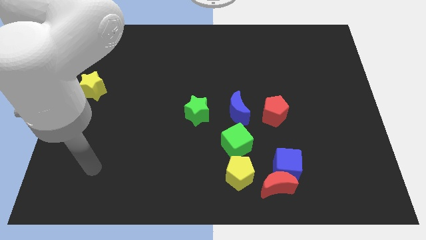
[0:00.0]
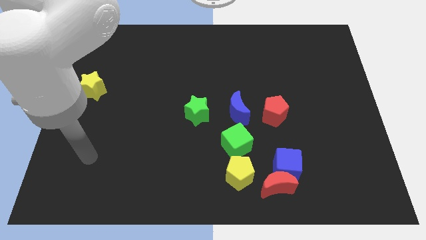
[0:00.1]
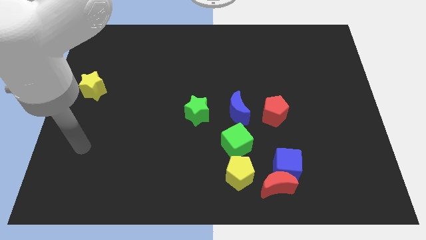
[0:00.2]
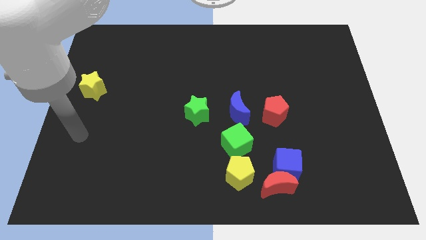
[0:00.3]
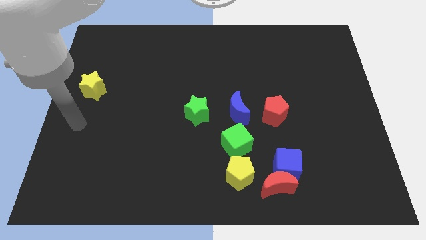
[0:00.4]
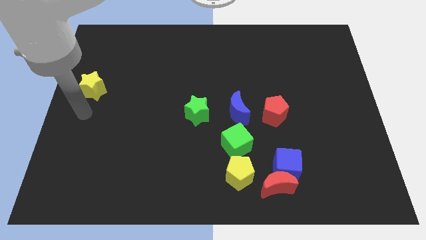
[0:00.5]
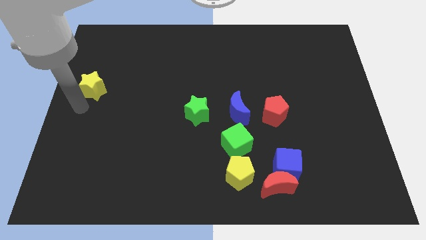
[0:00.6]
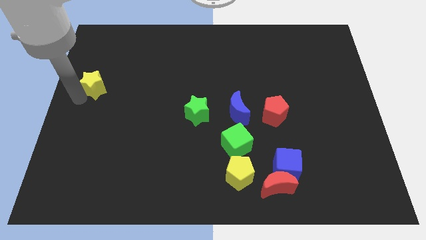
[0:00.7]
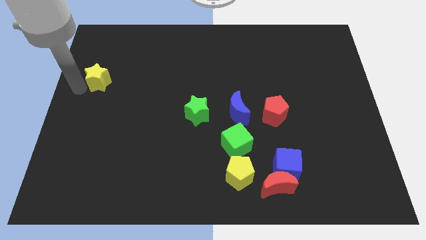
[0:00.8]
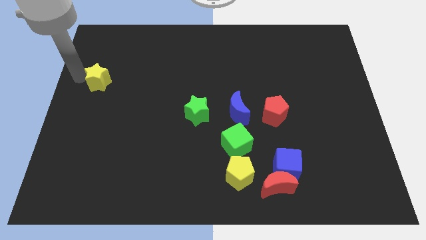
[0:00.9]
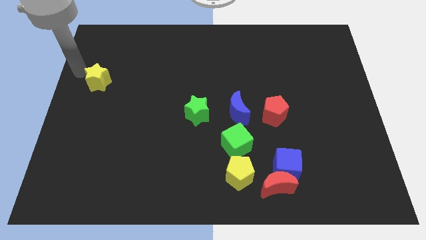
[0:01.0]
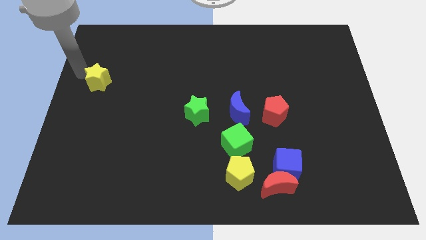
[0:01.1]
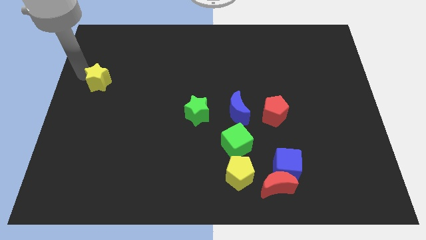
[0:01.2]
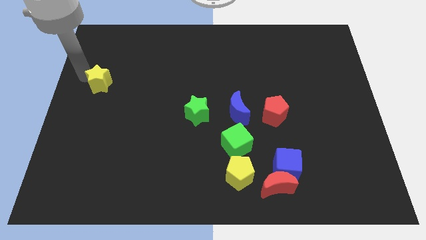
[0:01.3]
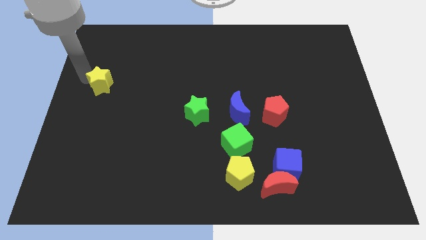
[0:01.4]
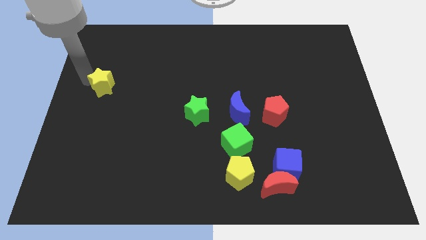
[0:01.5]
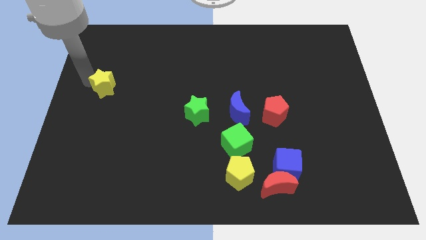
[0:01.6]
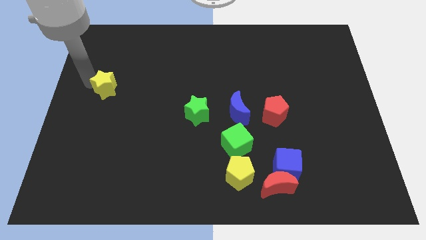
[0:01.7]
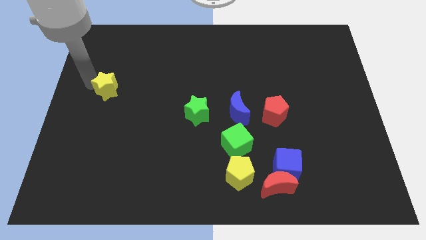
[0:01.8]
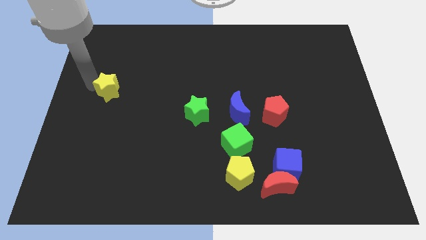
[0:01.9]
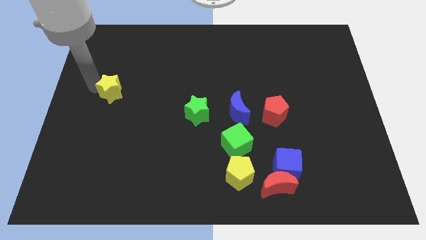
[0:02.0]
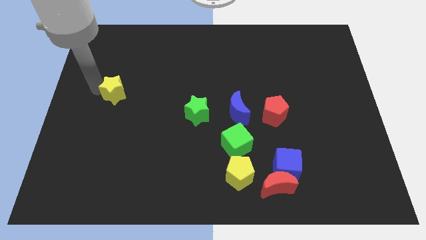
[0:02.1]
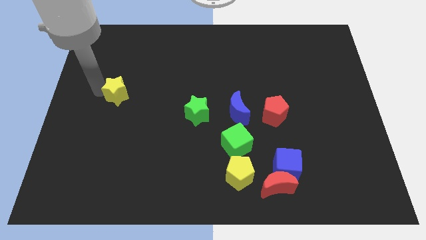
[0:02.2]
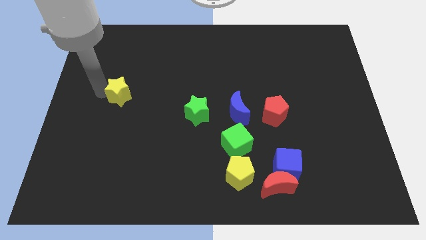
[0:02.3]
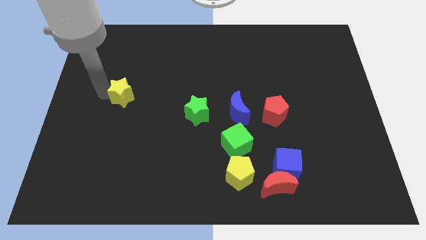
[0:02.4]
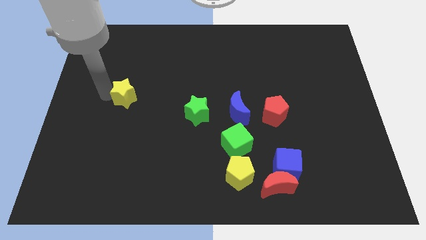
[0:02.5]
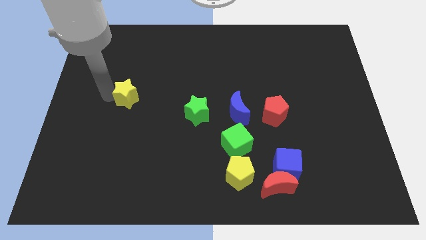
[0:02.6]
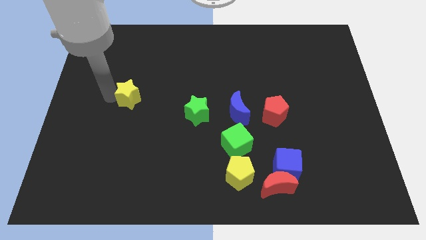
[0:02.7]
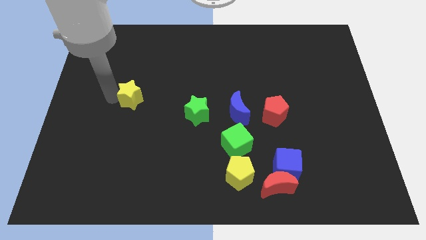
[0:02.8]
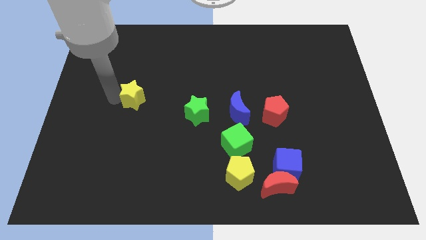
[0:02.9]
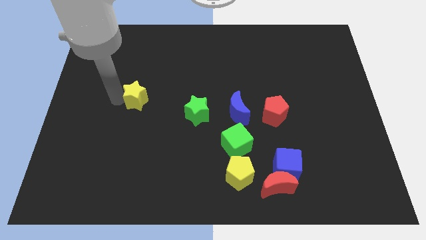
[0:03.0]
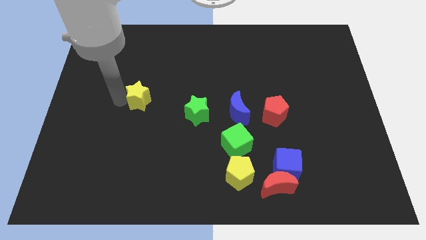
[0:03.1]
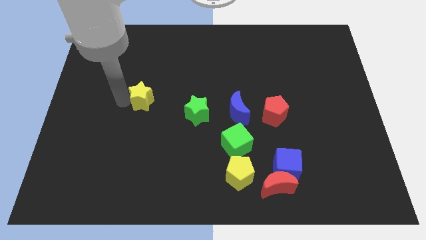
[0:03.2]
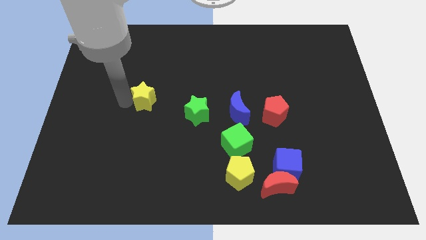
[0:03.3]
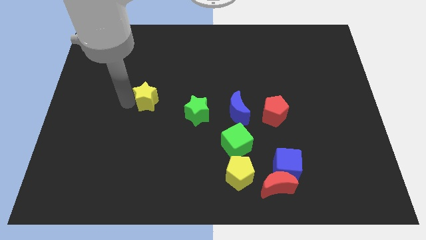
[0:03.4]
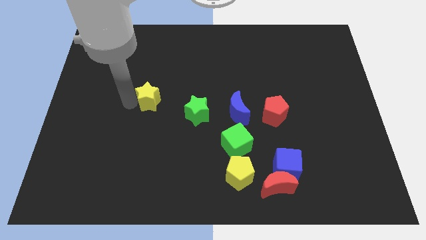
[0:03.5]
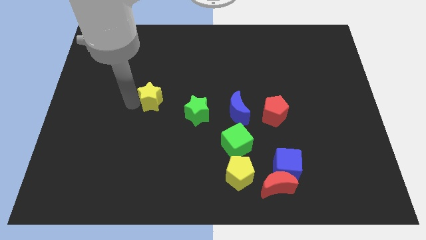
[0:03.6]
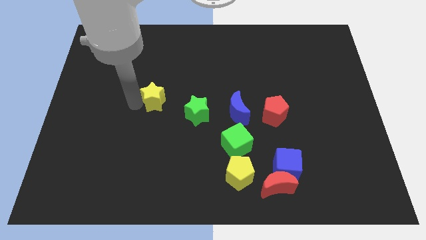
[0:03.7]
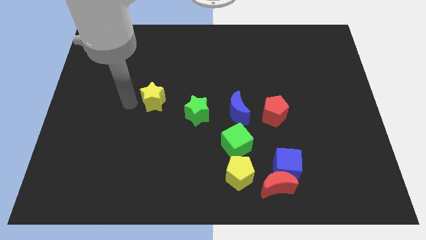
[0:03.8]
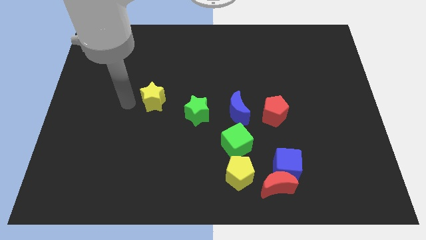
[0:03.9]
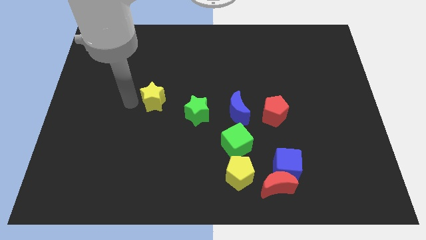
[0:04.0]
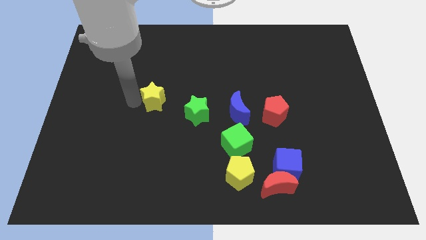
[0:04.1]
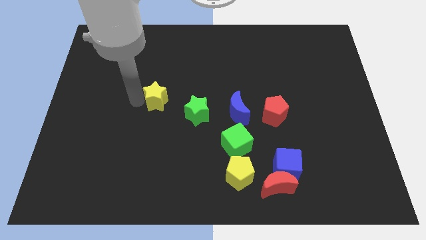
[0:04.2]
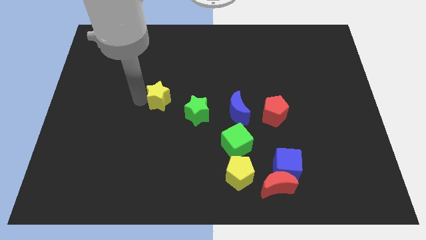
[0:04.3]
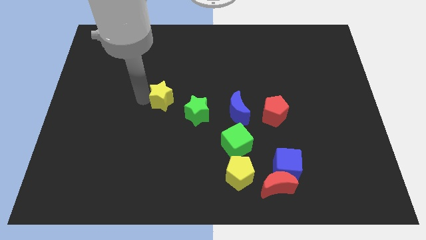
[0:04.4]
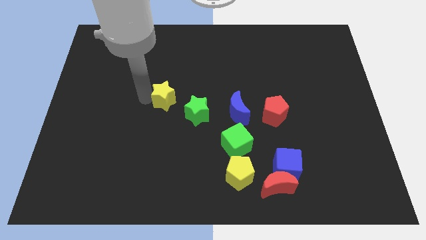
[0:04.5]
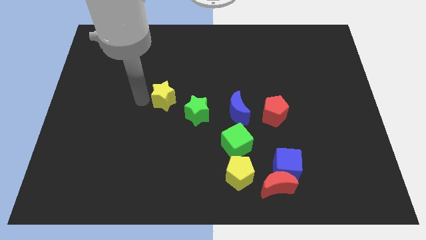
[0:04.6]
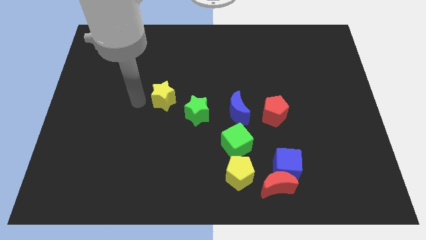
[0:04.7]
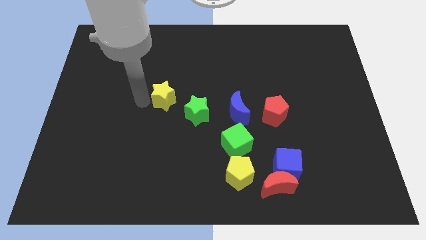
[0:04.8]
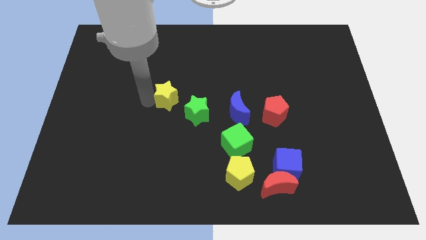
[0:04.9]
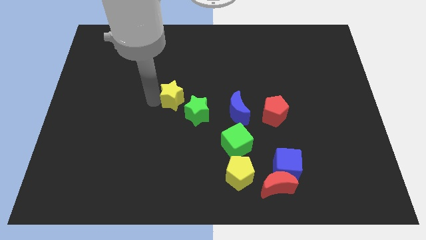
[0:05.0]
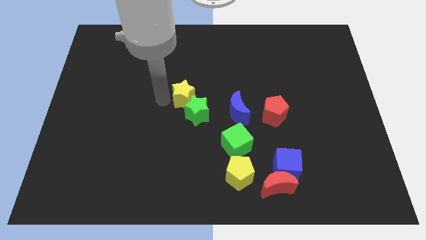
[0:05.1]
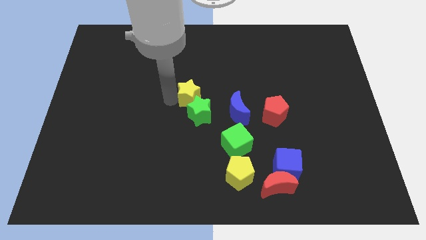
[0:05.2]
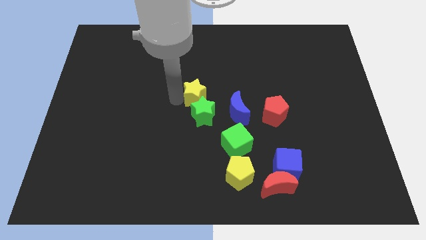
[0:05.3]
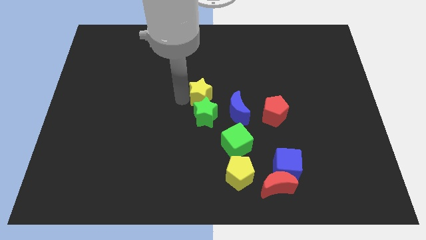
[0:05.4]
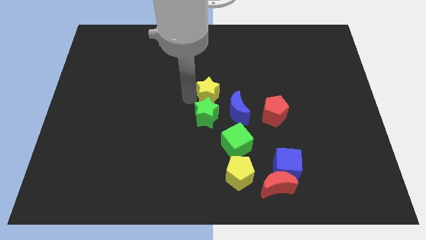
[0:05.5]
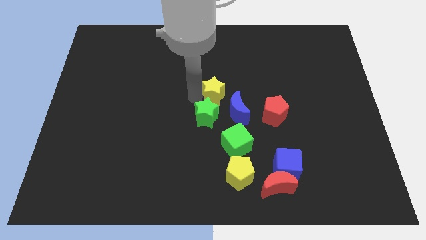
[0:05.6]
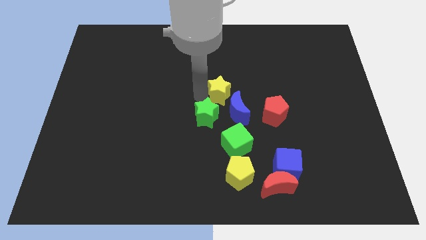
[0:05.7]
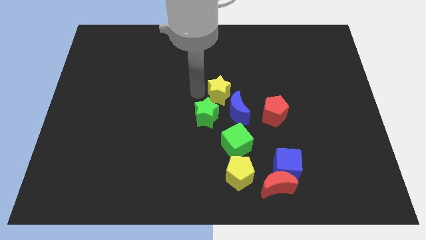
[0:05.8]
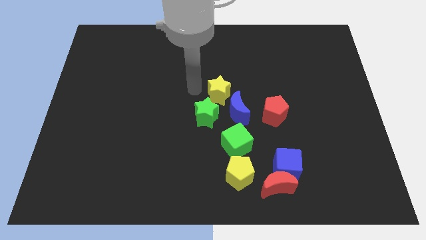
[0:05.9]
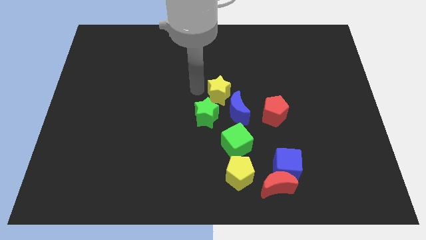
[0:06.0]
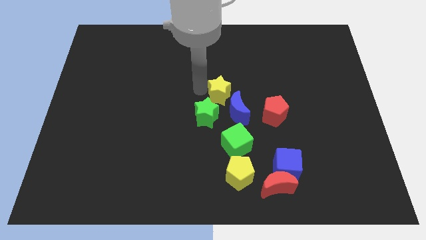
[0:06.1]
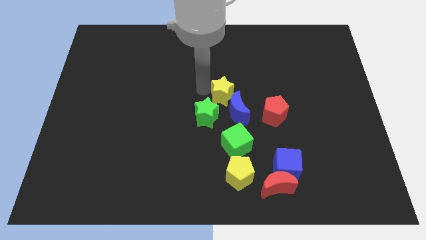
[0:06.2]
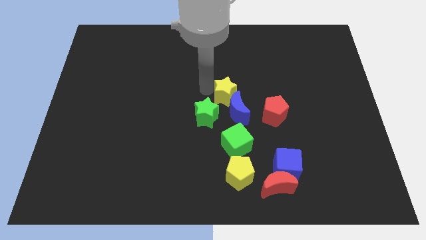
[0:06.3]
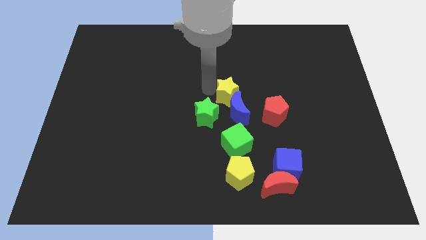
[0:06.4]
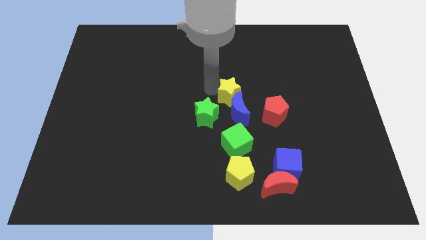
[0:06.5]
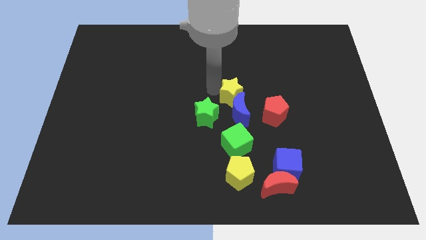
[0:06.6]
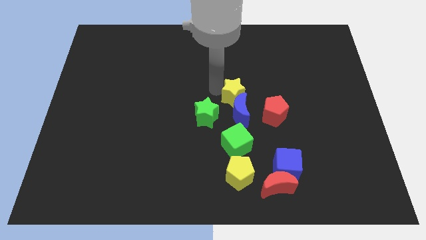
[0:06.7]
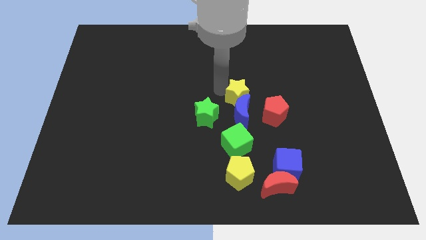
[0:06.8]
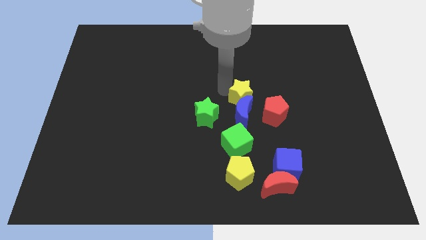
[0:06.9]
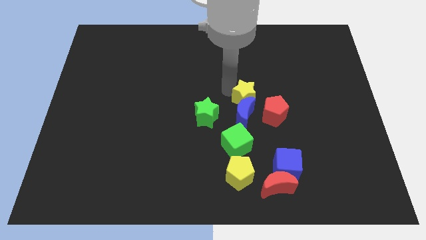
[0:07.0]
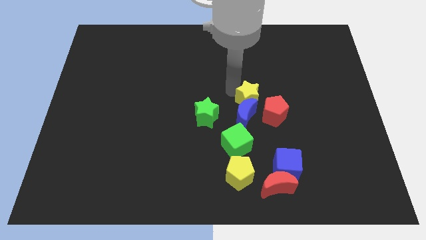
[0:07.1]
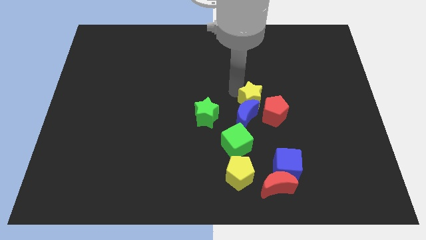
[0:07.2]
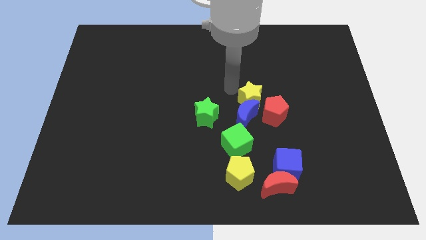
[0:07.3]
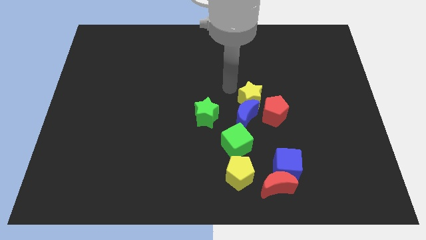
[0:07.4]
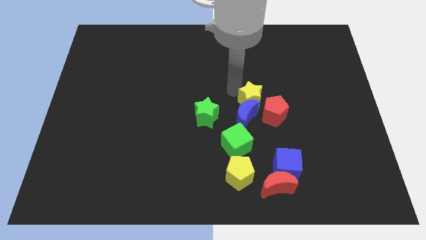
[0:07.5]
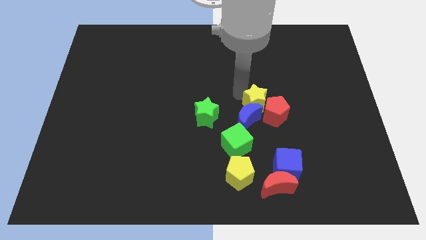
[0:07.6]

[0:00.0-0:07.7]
move the yellow star next to the red pentagon
